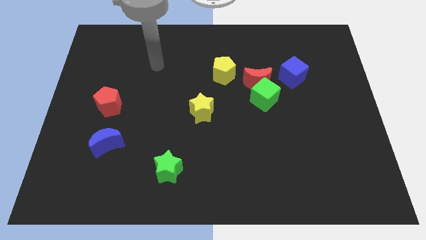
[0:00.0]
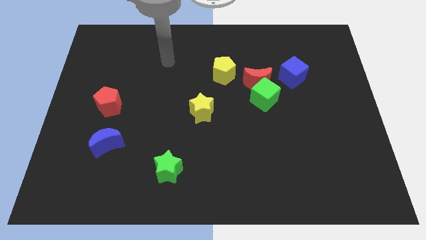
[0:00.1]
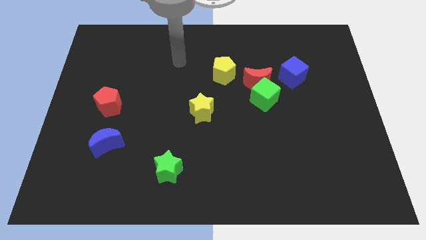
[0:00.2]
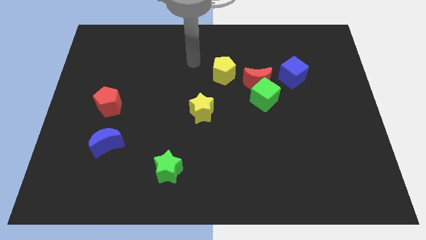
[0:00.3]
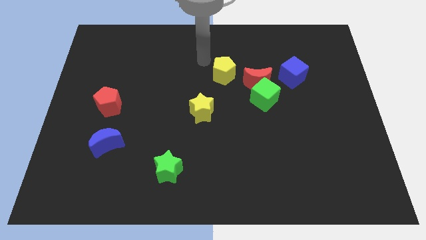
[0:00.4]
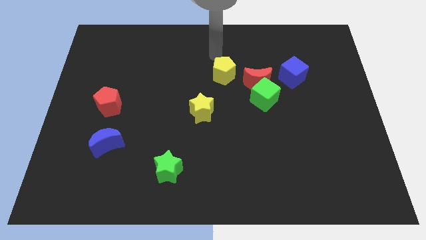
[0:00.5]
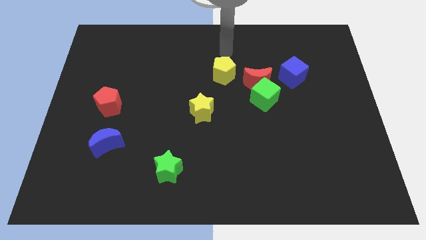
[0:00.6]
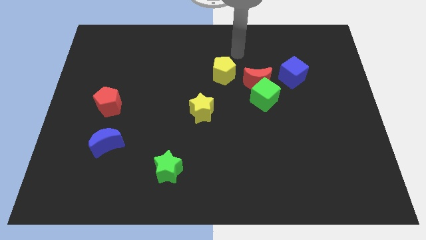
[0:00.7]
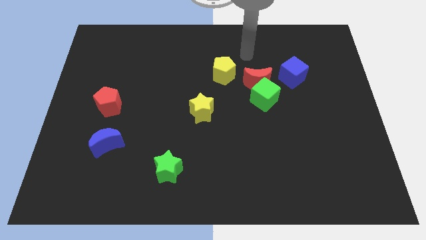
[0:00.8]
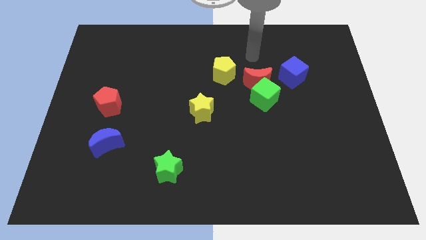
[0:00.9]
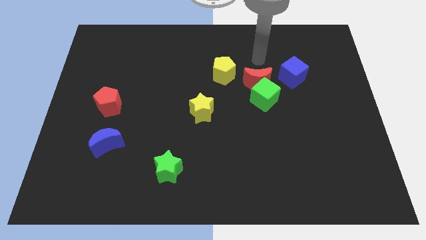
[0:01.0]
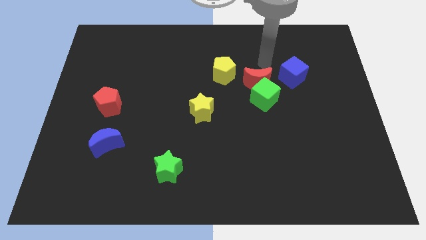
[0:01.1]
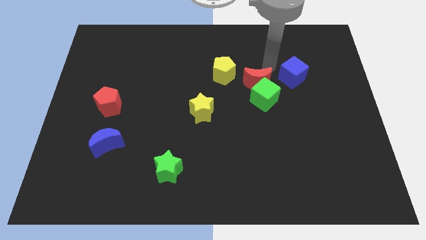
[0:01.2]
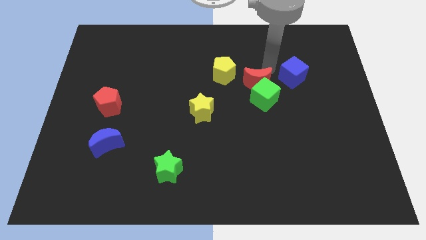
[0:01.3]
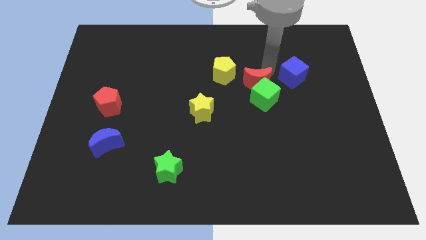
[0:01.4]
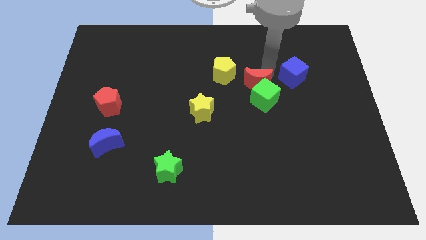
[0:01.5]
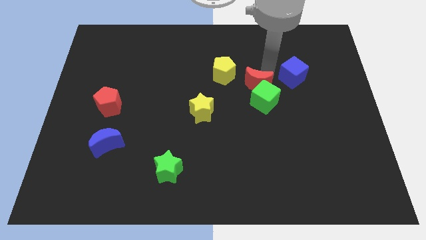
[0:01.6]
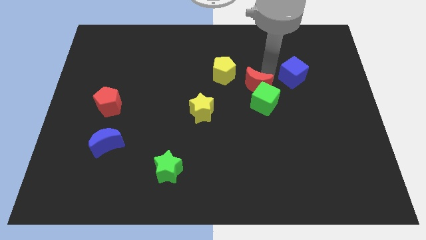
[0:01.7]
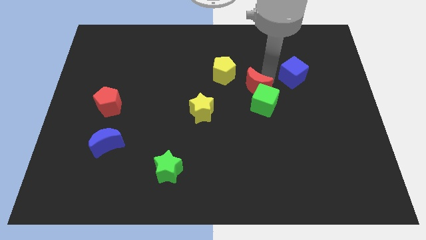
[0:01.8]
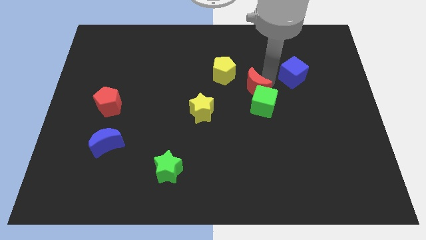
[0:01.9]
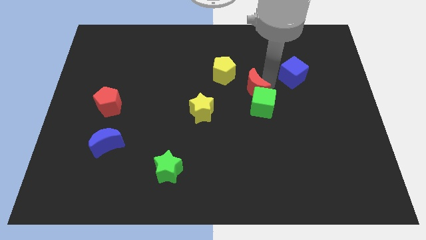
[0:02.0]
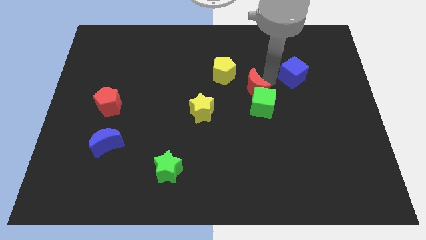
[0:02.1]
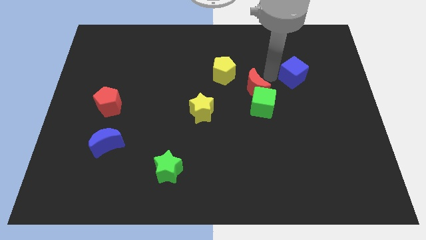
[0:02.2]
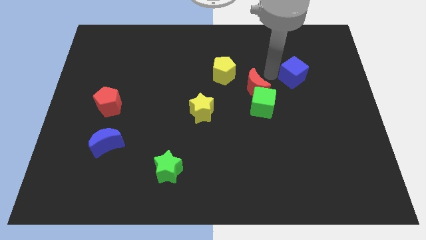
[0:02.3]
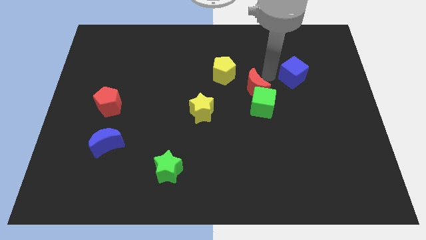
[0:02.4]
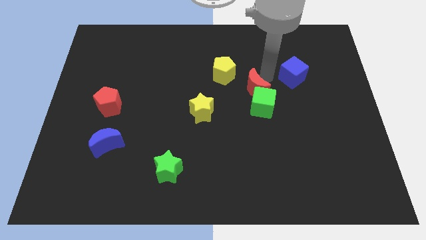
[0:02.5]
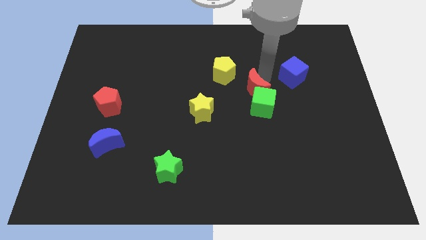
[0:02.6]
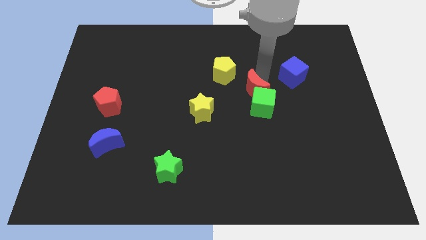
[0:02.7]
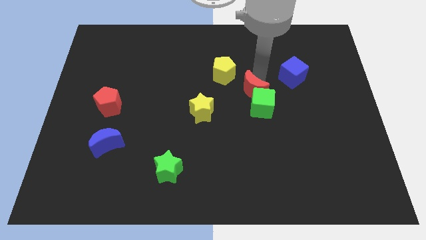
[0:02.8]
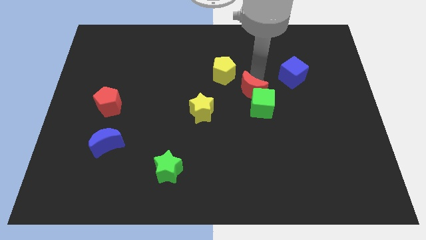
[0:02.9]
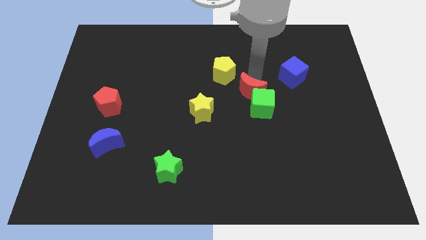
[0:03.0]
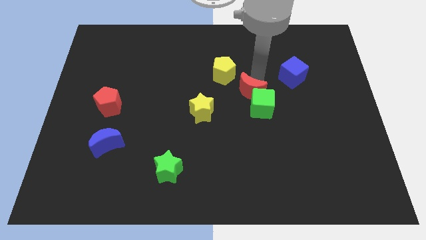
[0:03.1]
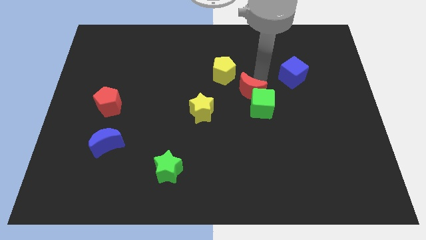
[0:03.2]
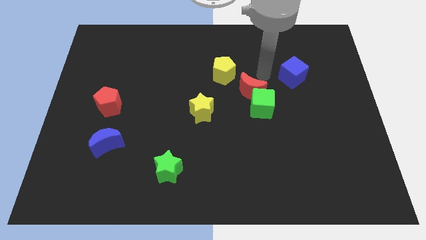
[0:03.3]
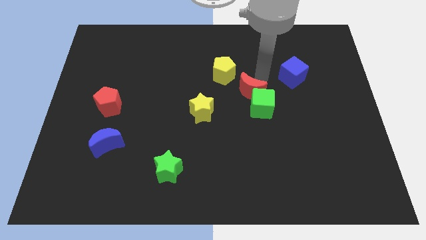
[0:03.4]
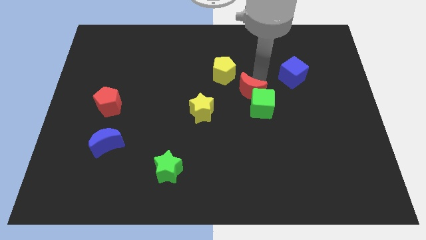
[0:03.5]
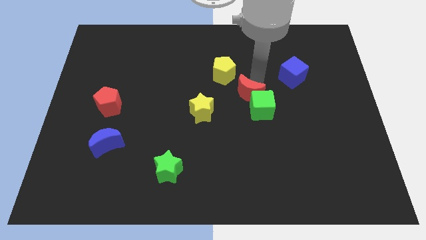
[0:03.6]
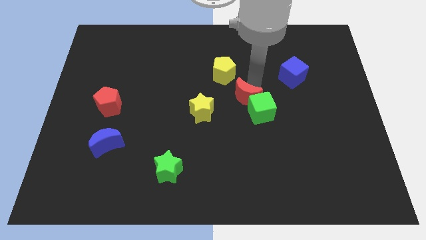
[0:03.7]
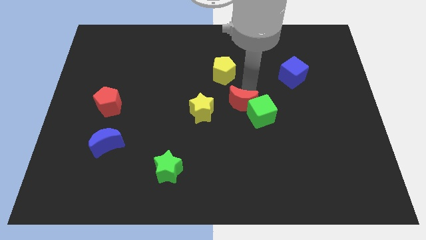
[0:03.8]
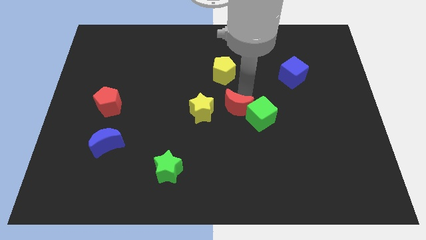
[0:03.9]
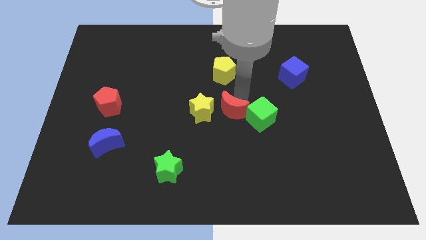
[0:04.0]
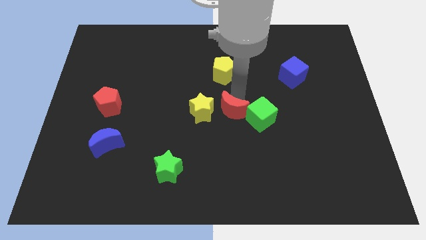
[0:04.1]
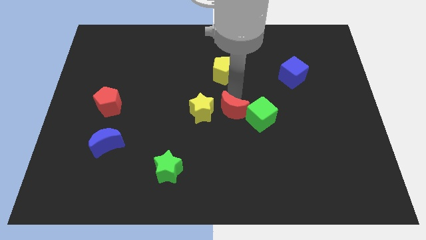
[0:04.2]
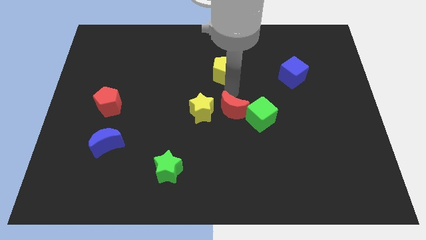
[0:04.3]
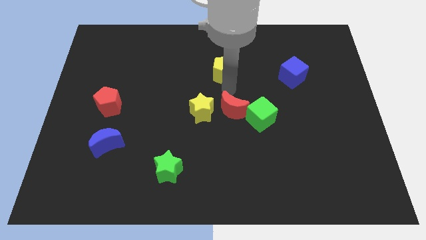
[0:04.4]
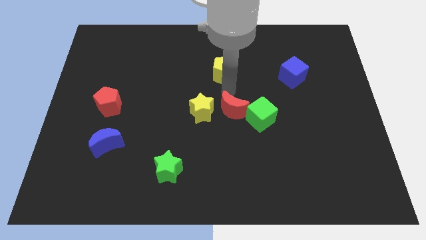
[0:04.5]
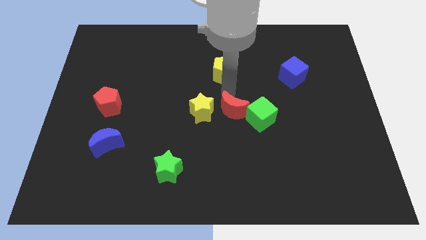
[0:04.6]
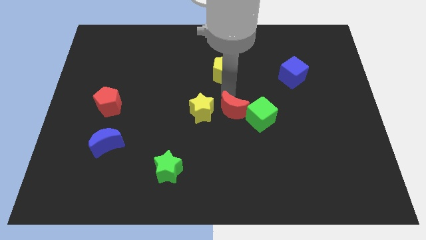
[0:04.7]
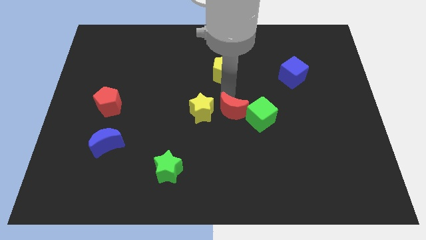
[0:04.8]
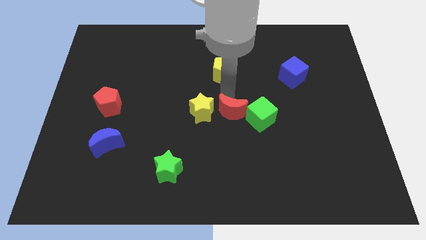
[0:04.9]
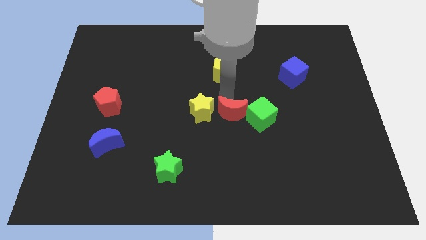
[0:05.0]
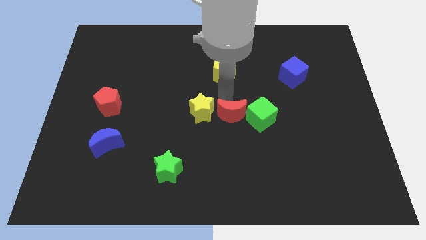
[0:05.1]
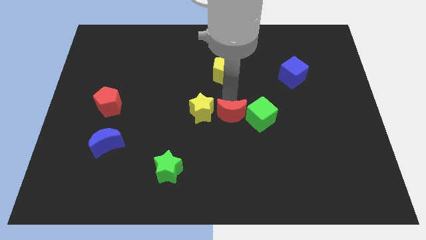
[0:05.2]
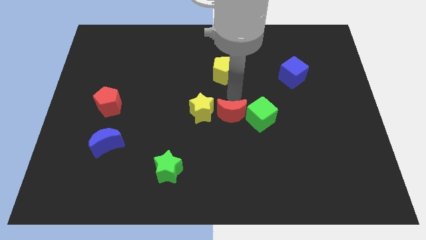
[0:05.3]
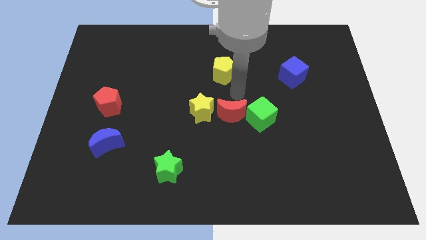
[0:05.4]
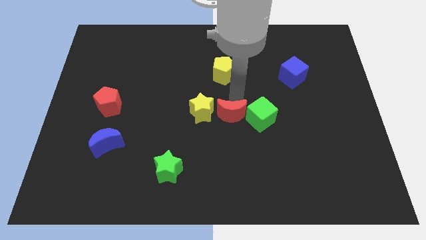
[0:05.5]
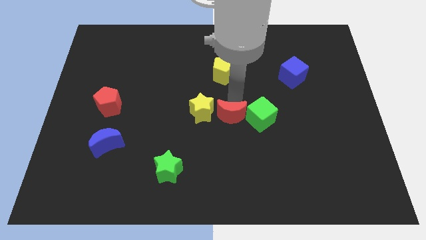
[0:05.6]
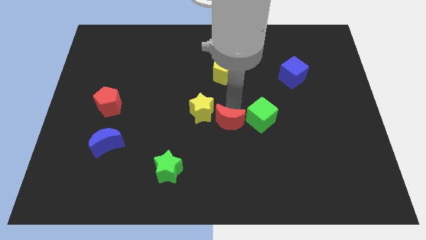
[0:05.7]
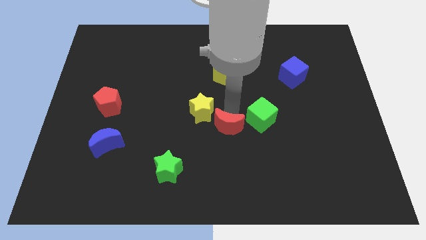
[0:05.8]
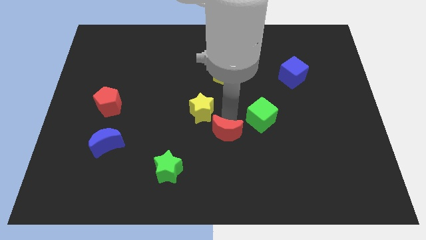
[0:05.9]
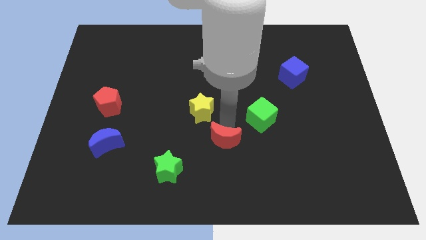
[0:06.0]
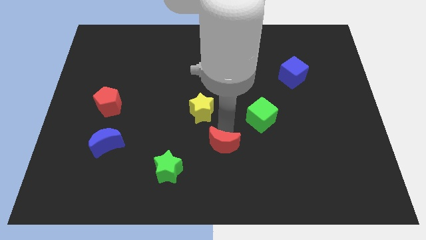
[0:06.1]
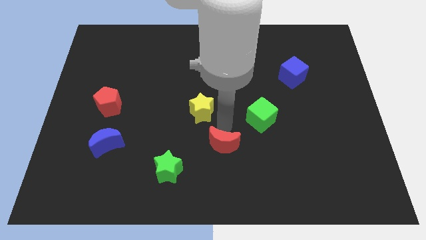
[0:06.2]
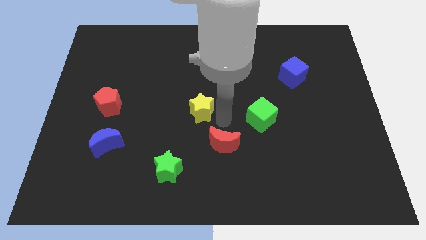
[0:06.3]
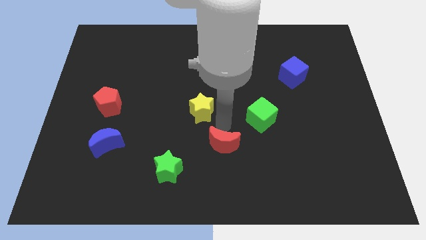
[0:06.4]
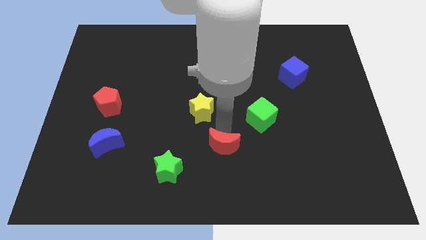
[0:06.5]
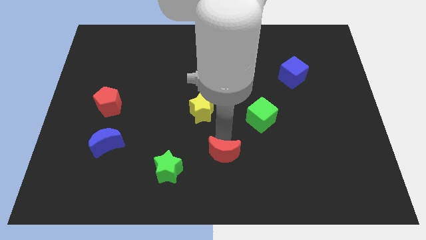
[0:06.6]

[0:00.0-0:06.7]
move the red moon to the bottom
